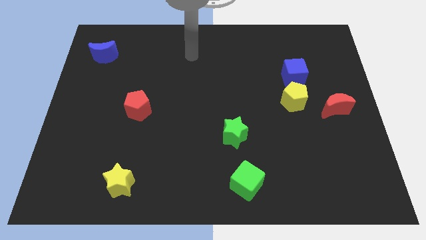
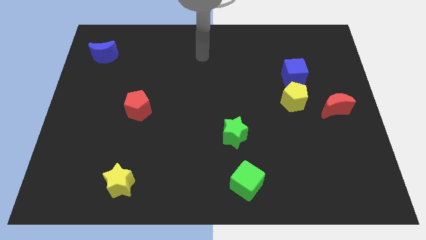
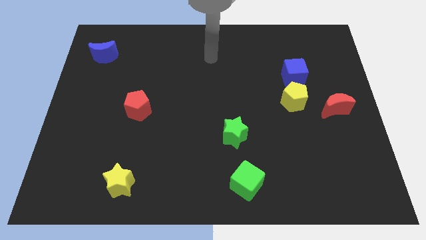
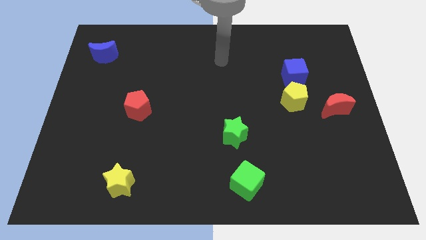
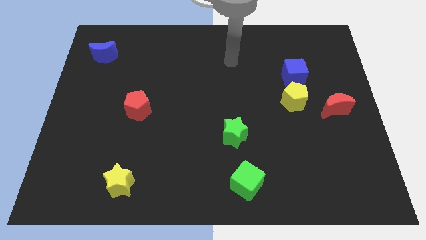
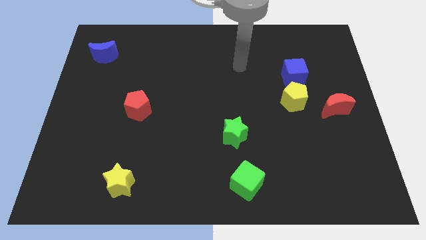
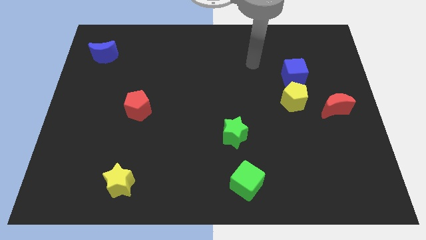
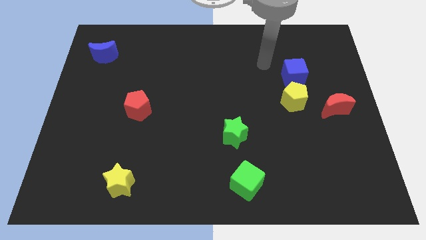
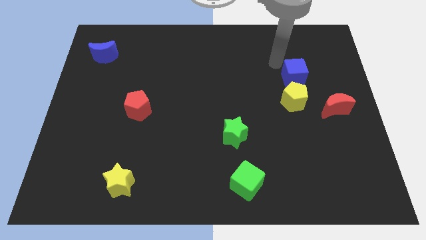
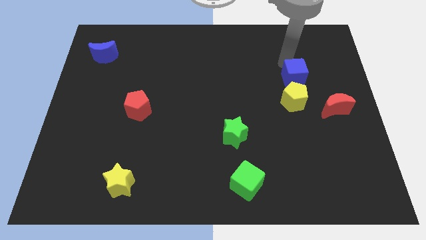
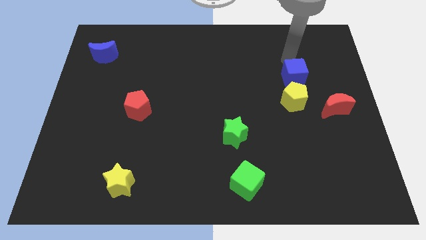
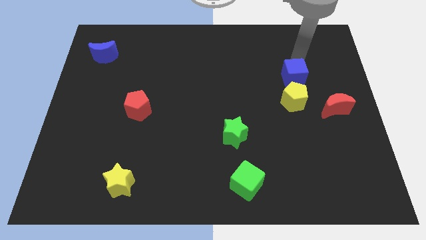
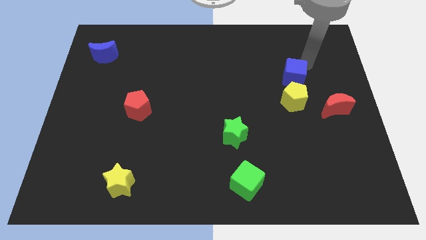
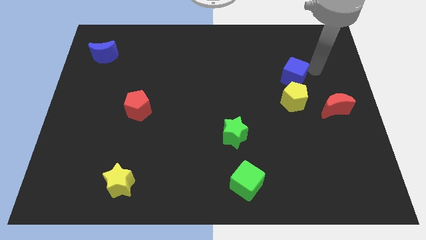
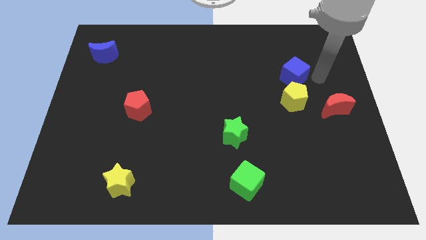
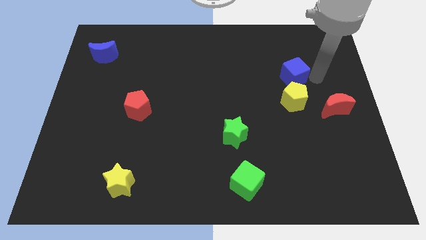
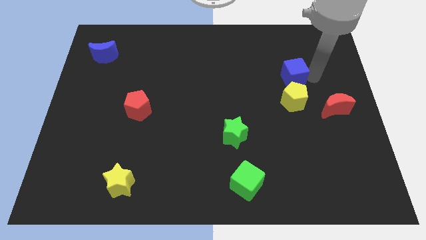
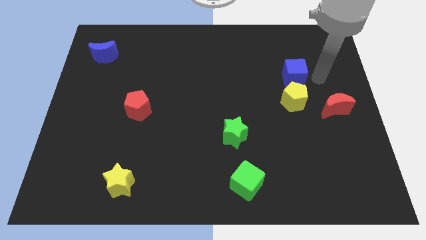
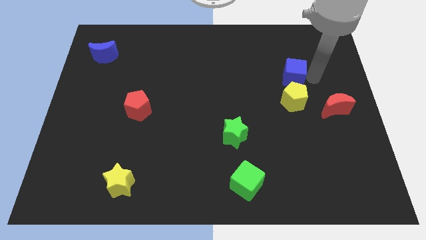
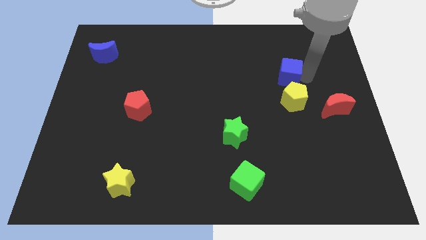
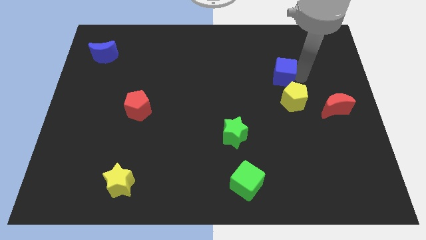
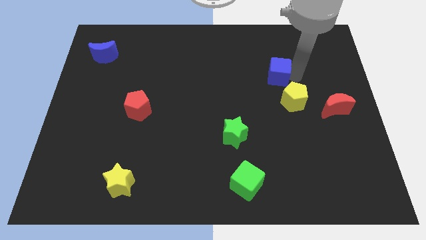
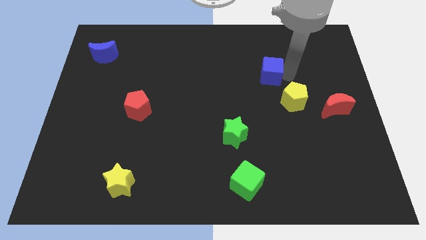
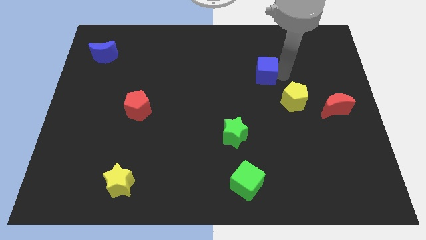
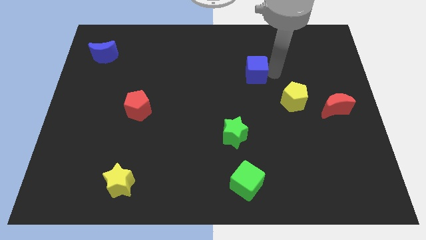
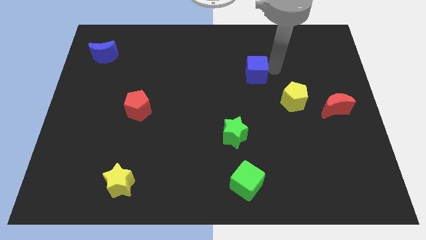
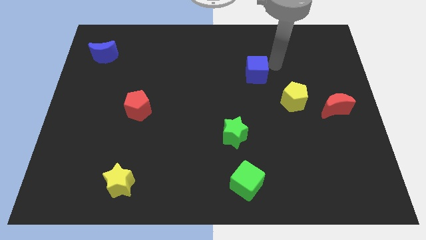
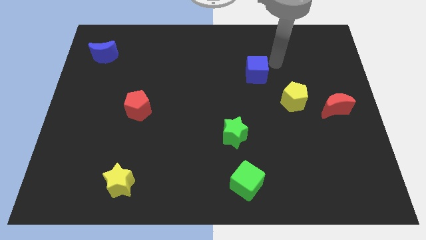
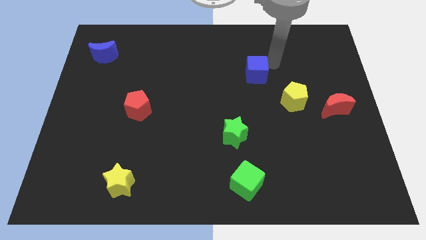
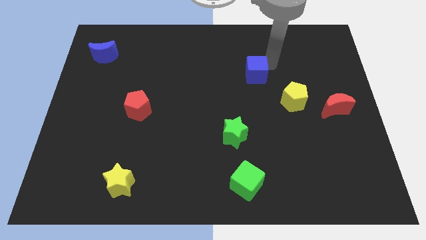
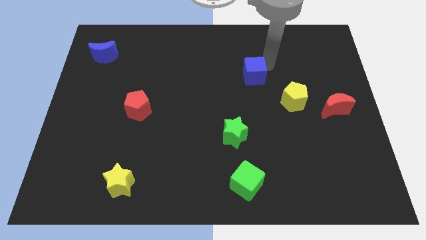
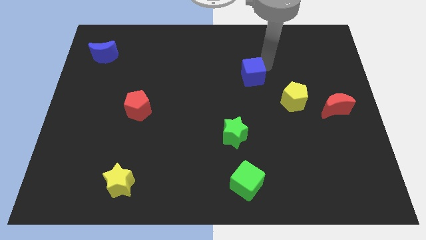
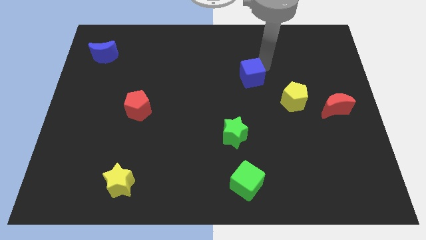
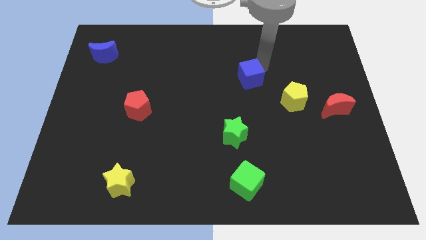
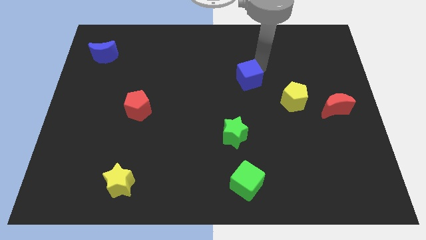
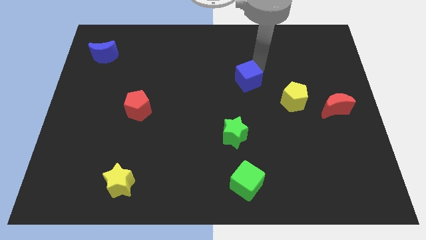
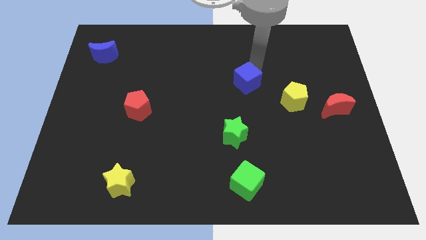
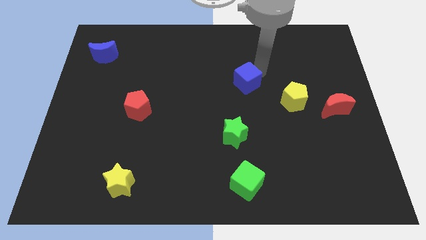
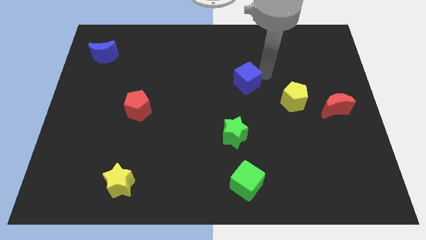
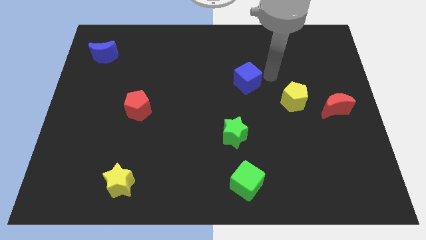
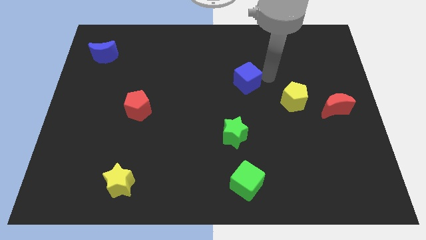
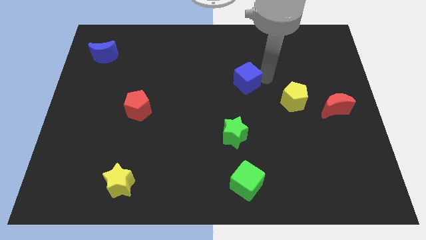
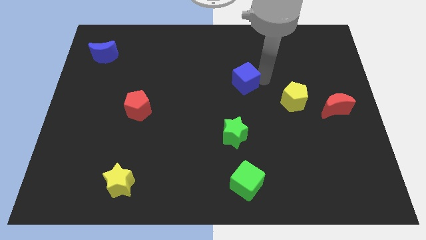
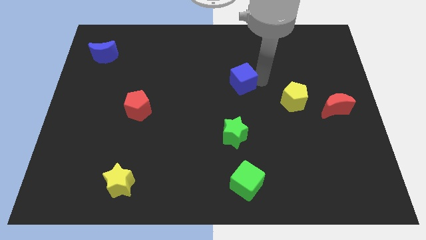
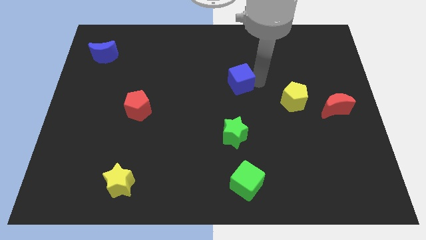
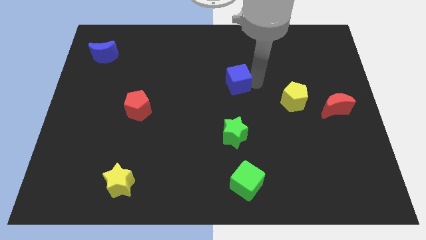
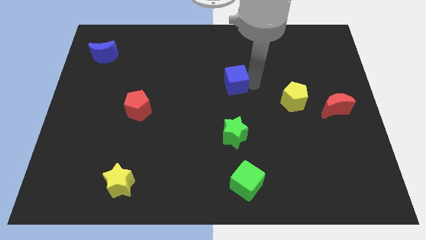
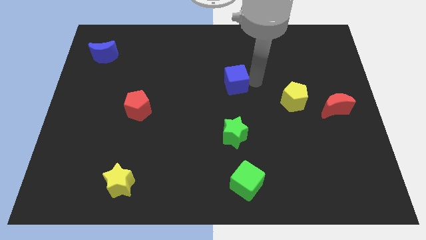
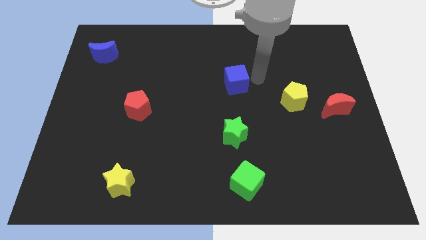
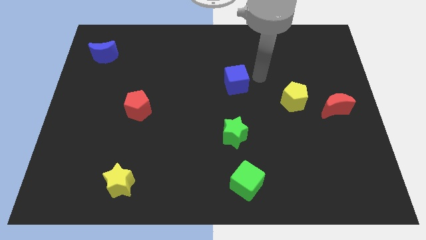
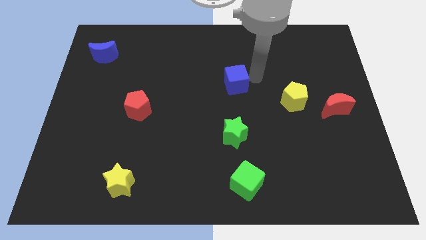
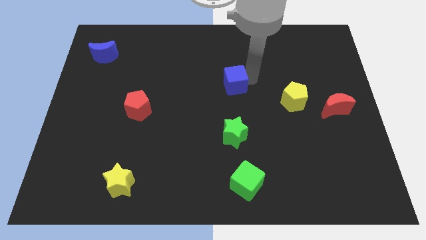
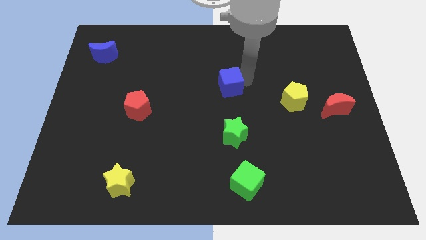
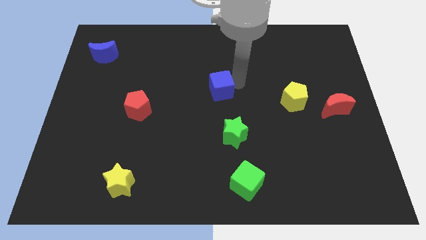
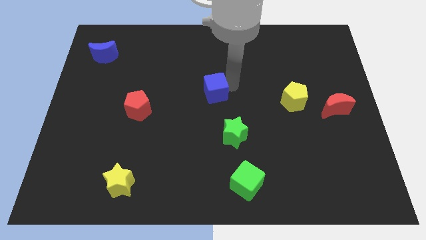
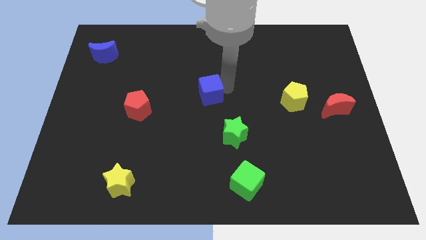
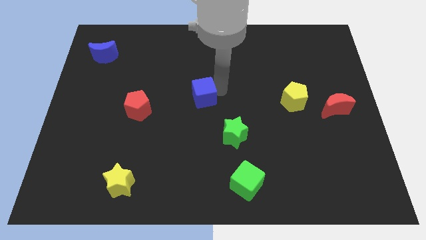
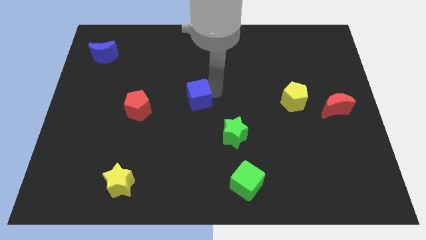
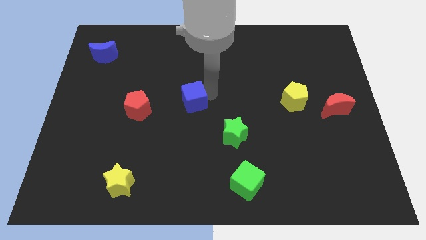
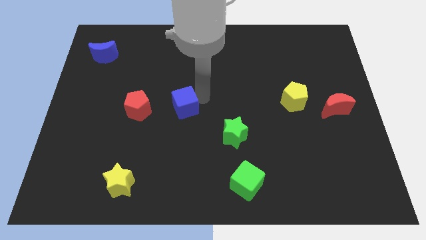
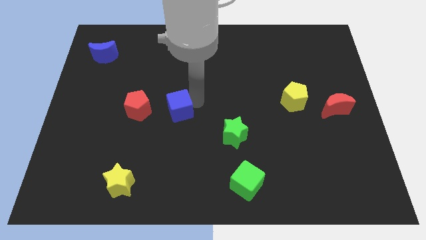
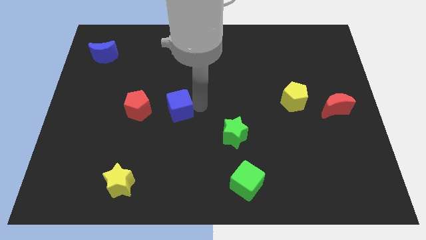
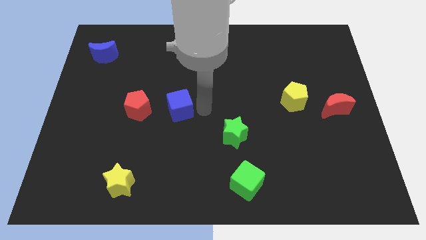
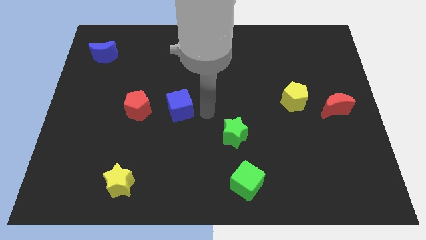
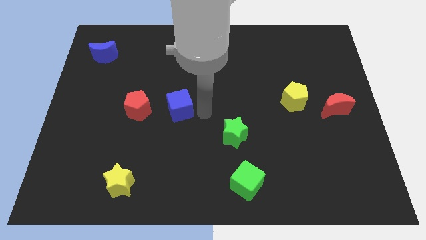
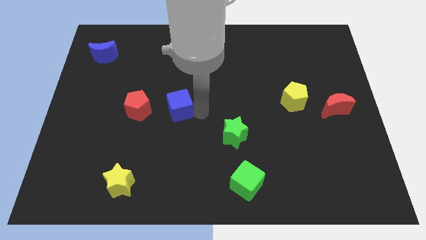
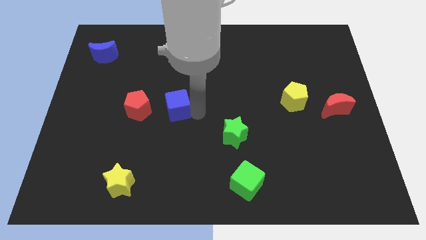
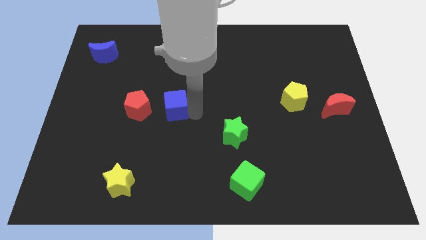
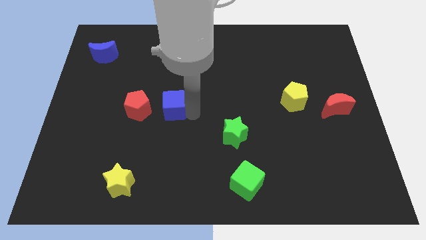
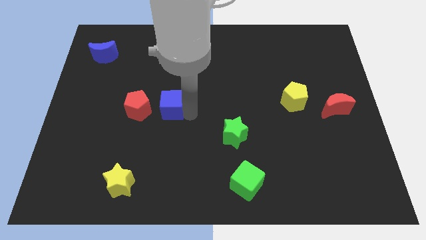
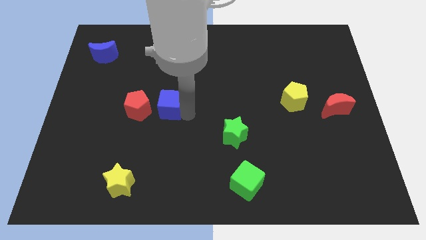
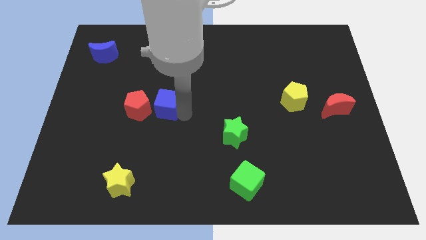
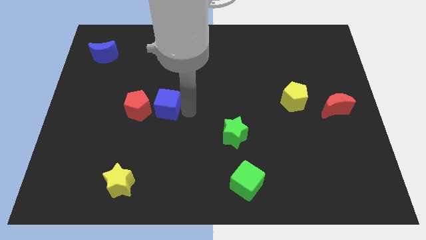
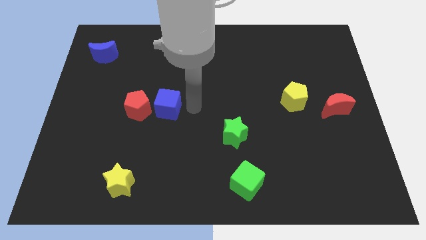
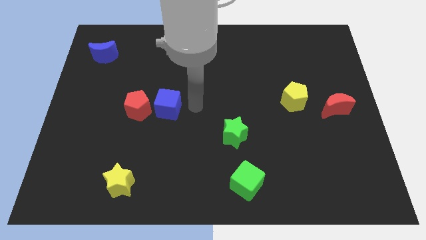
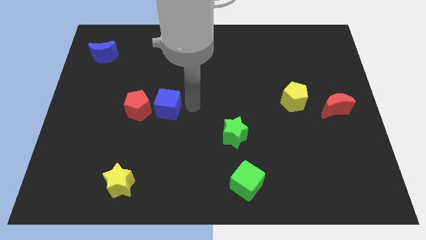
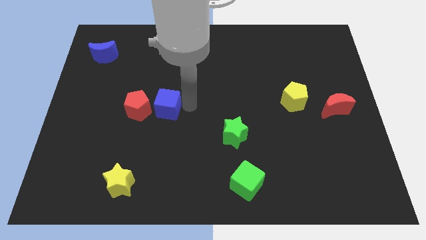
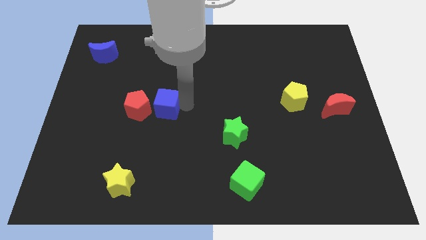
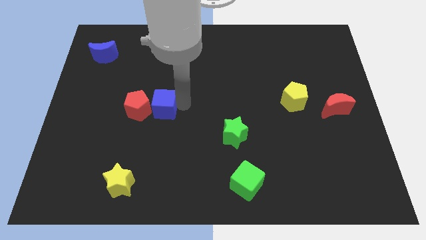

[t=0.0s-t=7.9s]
push the blue cube next to the red pentagon
